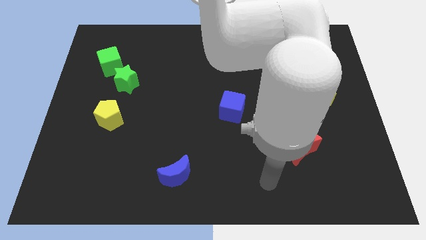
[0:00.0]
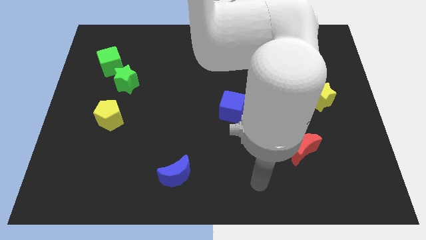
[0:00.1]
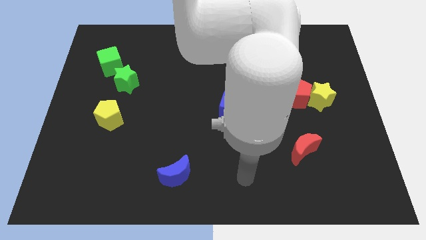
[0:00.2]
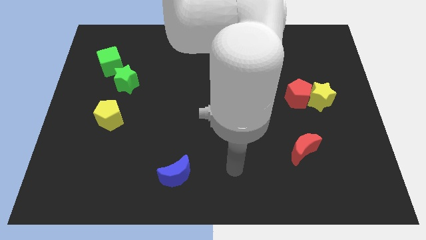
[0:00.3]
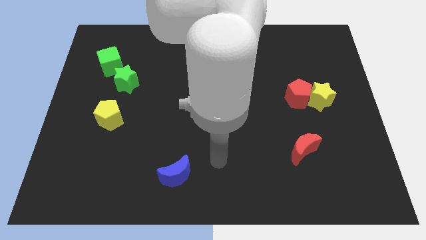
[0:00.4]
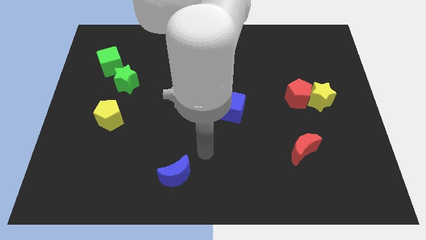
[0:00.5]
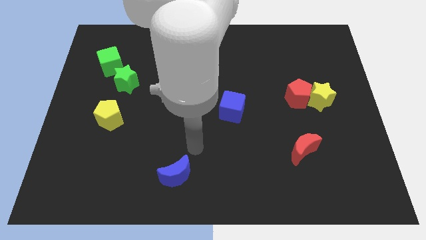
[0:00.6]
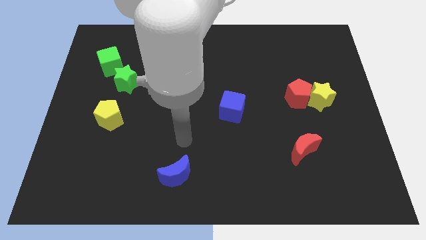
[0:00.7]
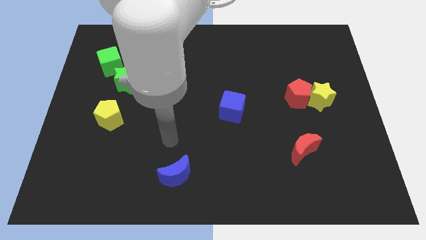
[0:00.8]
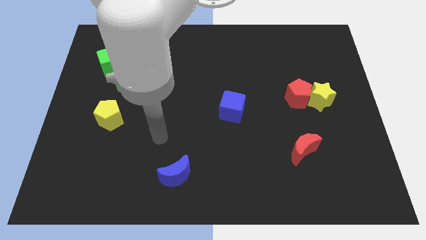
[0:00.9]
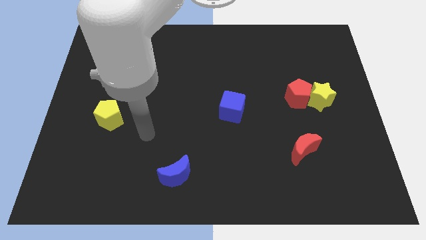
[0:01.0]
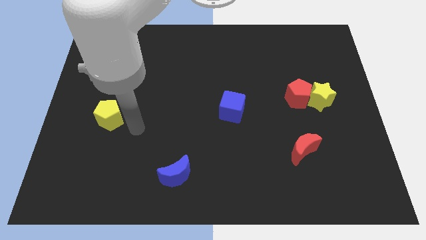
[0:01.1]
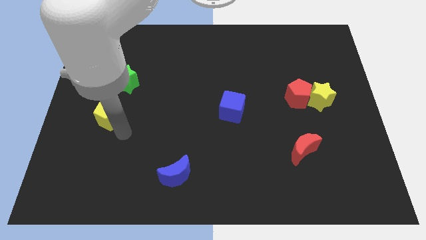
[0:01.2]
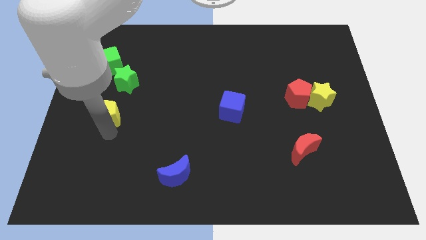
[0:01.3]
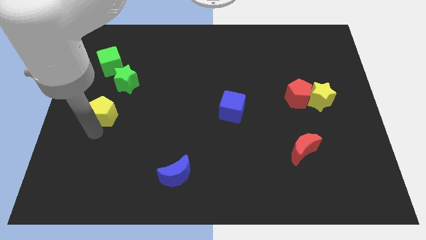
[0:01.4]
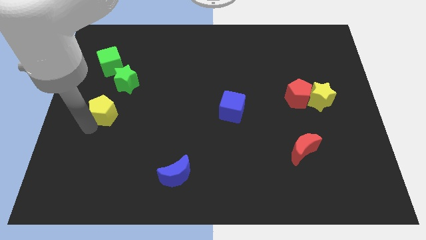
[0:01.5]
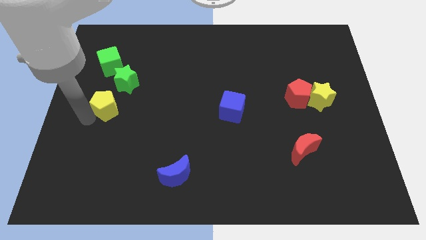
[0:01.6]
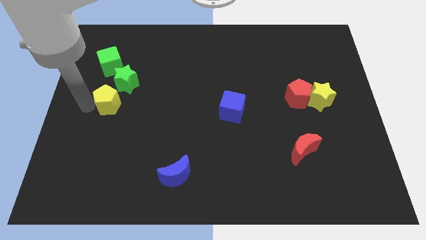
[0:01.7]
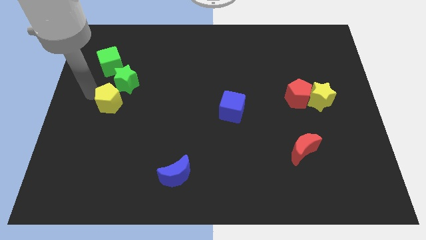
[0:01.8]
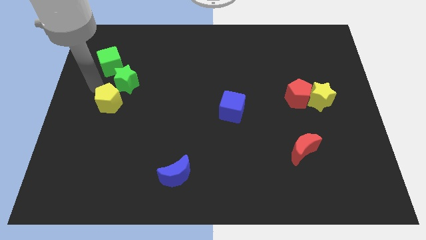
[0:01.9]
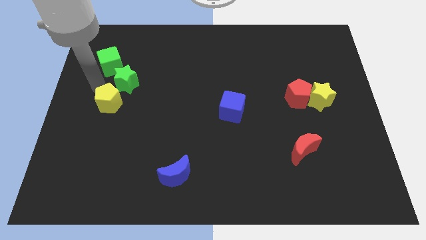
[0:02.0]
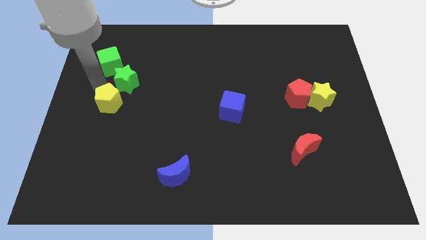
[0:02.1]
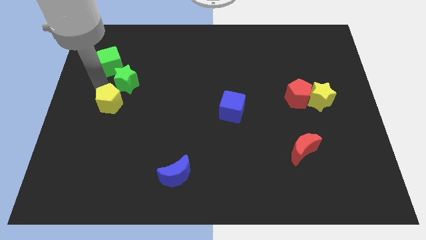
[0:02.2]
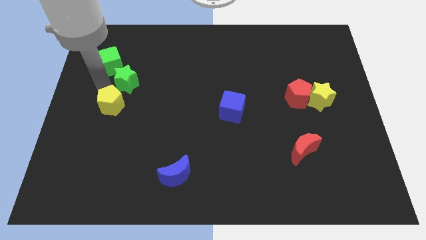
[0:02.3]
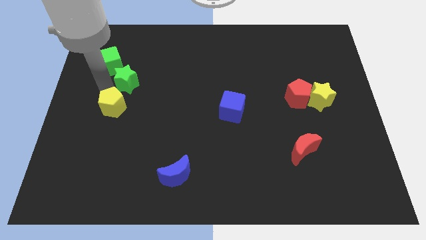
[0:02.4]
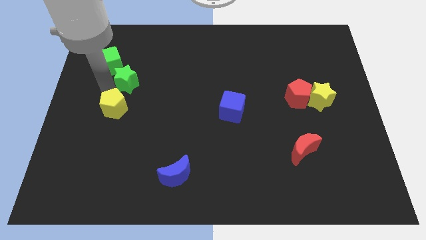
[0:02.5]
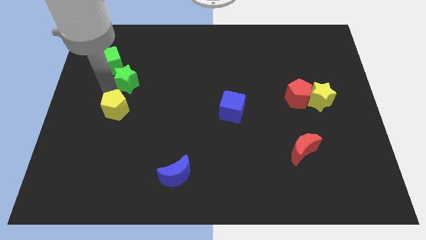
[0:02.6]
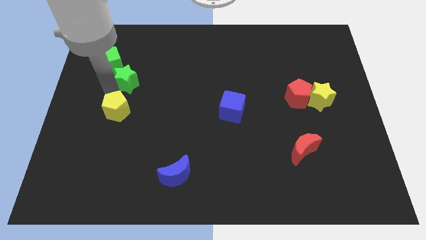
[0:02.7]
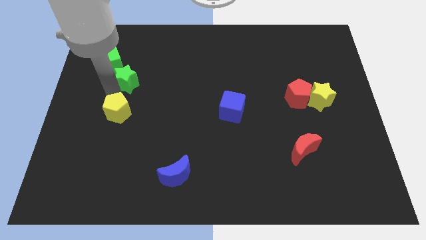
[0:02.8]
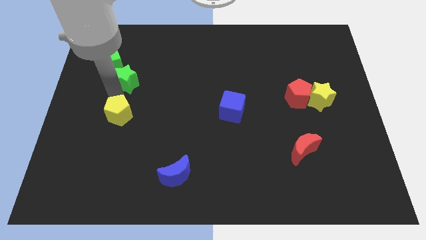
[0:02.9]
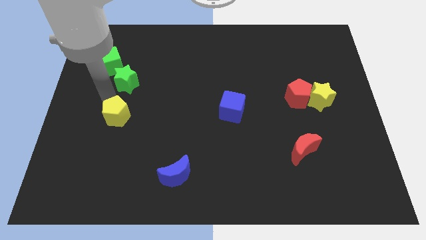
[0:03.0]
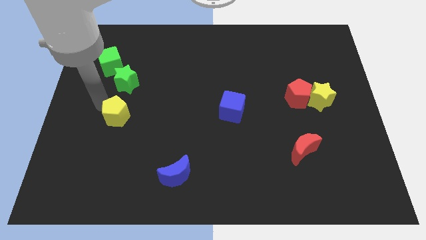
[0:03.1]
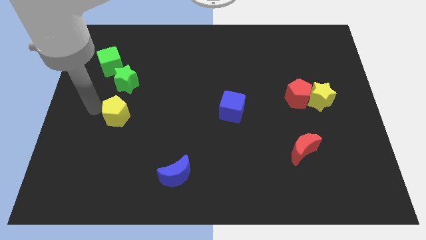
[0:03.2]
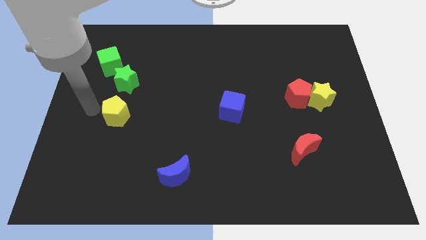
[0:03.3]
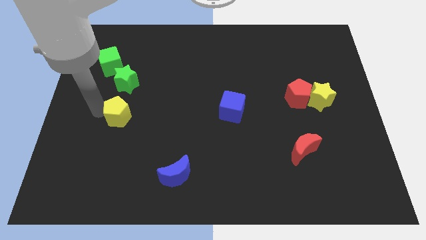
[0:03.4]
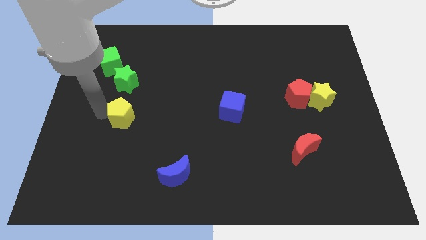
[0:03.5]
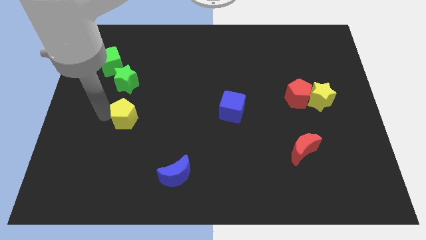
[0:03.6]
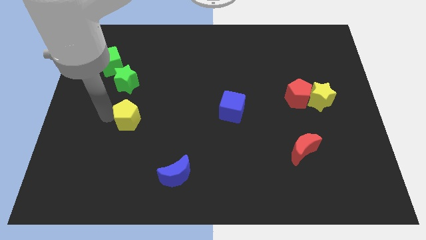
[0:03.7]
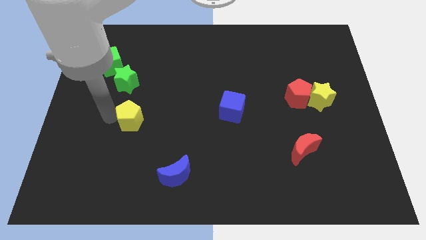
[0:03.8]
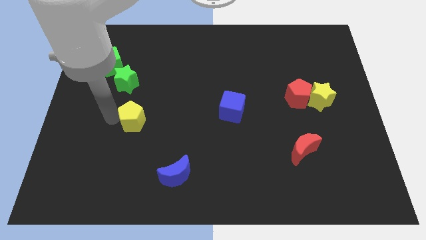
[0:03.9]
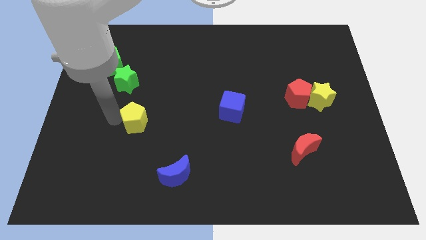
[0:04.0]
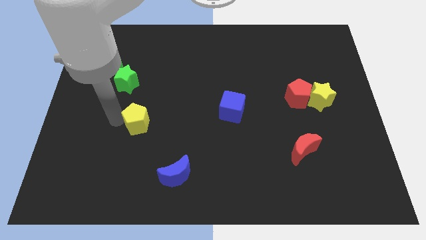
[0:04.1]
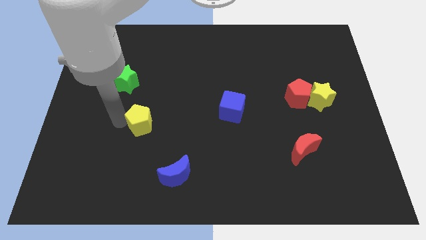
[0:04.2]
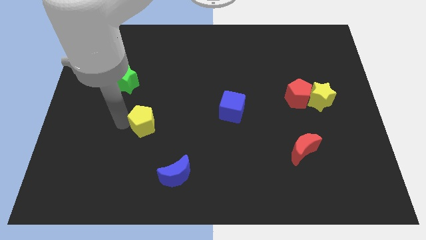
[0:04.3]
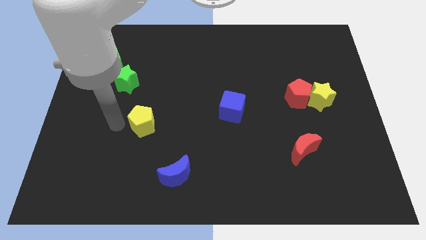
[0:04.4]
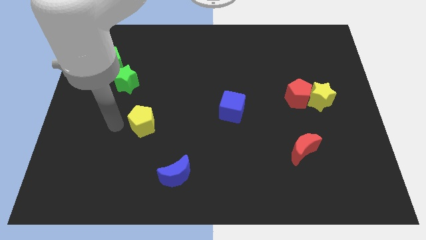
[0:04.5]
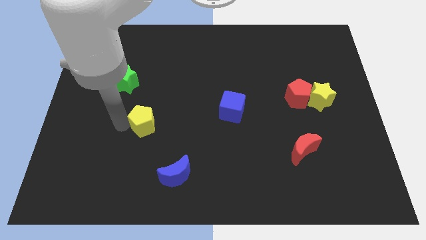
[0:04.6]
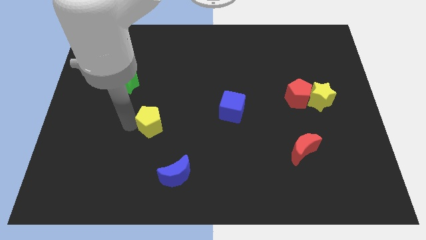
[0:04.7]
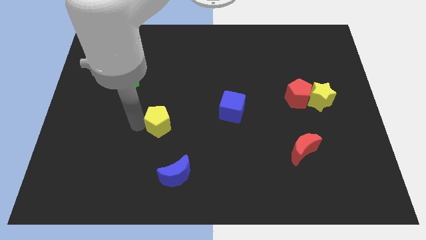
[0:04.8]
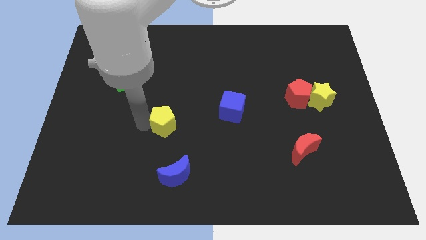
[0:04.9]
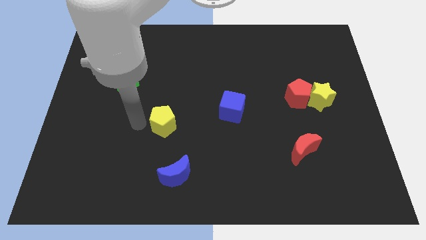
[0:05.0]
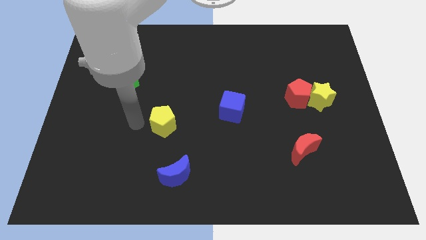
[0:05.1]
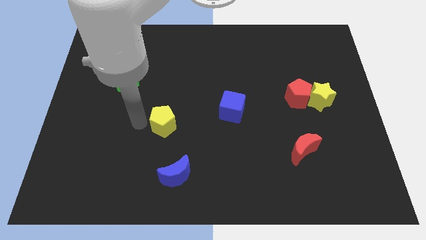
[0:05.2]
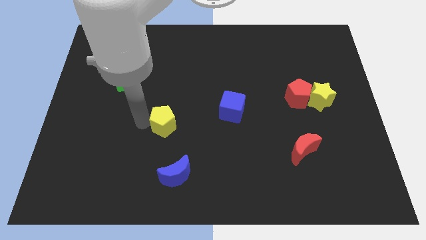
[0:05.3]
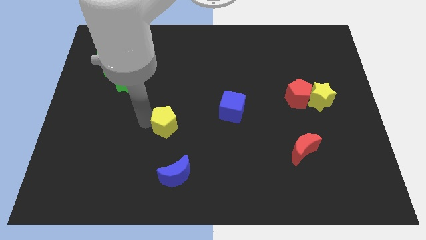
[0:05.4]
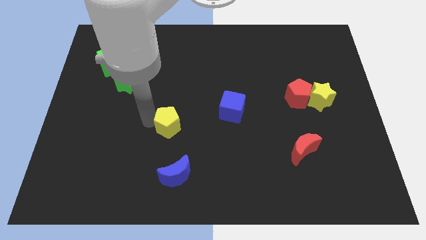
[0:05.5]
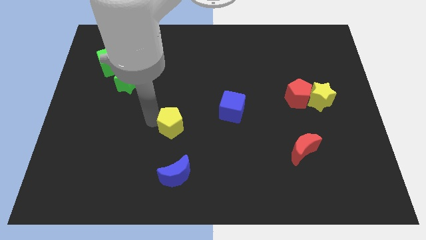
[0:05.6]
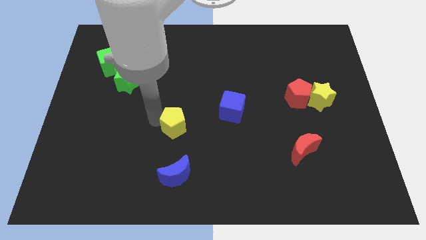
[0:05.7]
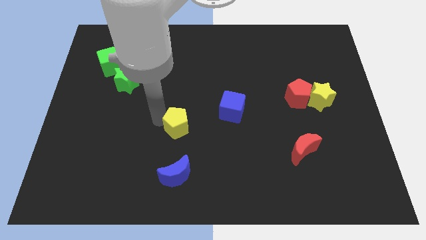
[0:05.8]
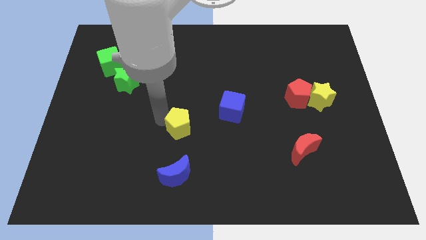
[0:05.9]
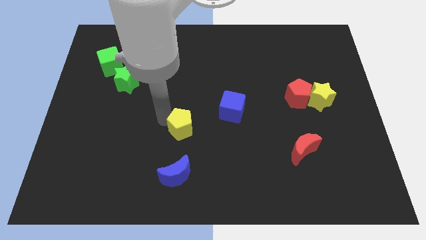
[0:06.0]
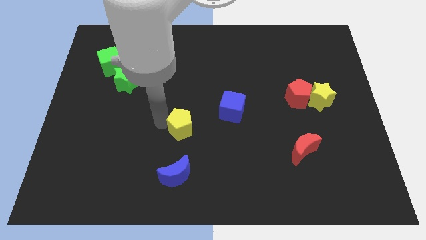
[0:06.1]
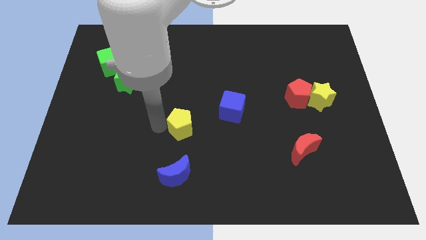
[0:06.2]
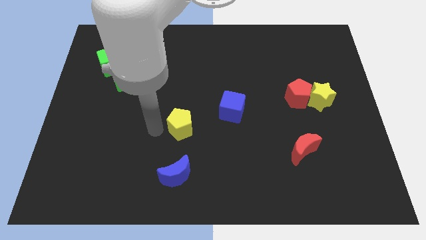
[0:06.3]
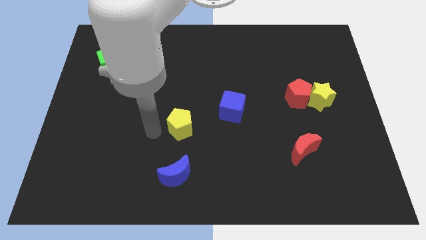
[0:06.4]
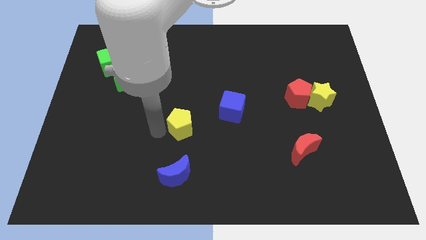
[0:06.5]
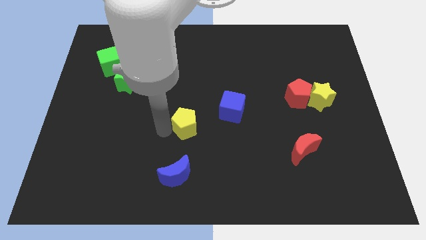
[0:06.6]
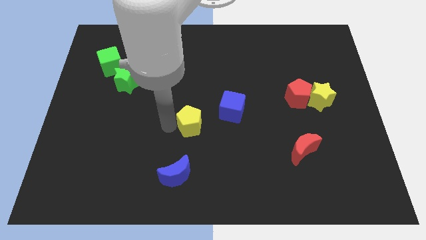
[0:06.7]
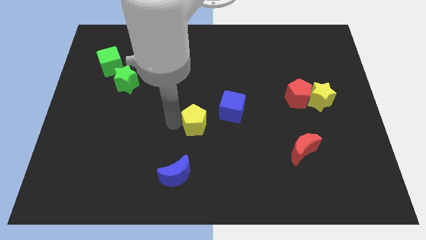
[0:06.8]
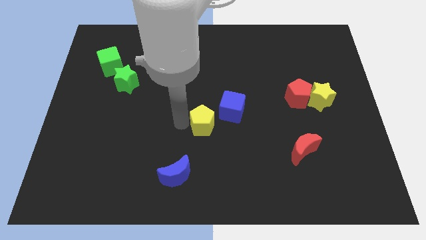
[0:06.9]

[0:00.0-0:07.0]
push the yellow pentagon right

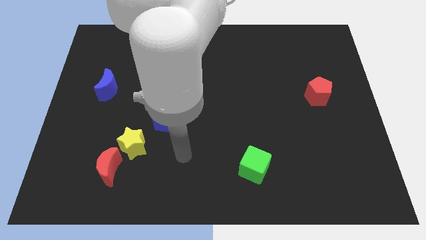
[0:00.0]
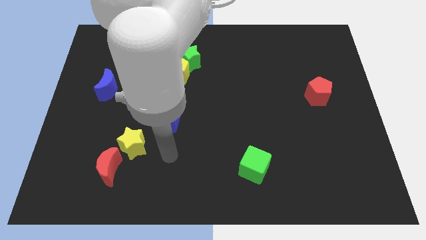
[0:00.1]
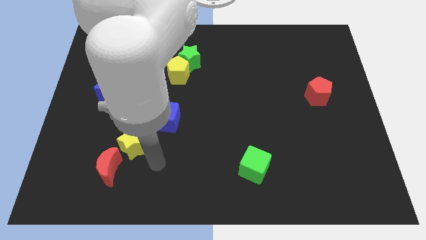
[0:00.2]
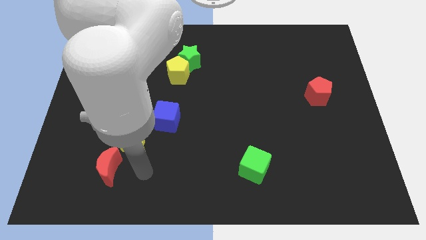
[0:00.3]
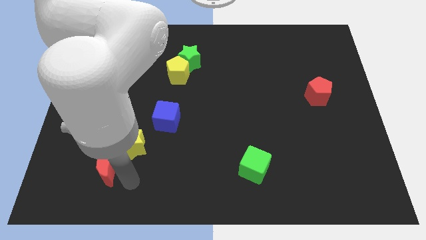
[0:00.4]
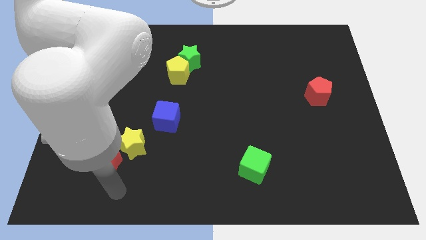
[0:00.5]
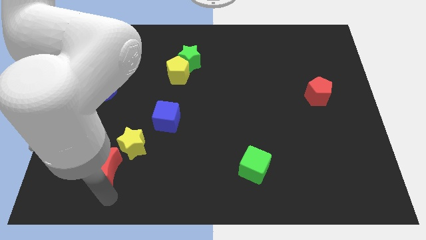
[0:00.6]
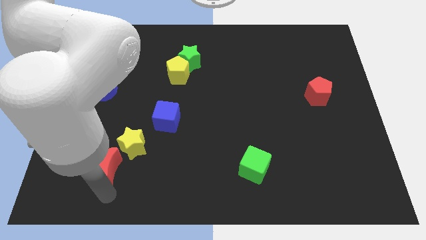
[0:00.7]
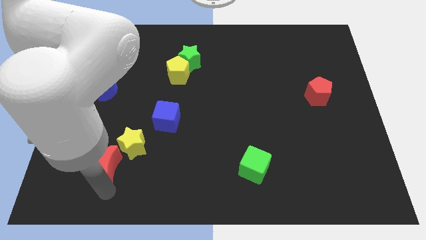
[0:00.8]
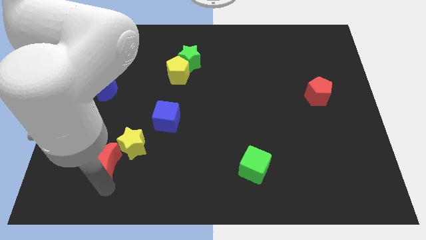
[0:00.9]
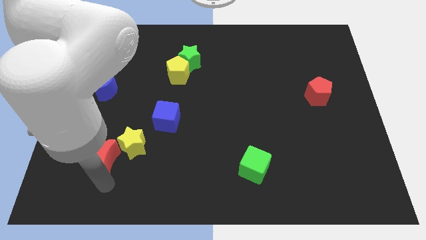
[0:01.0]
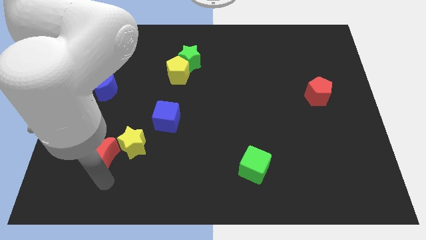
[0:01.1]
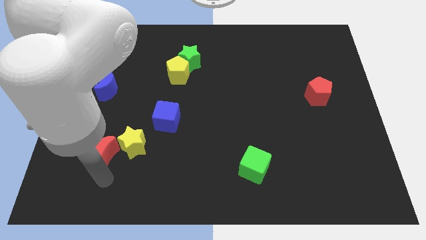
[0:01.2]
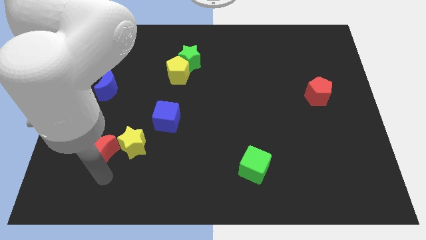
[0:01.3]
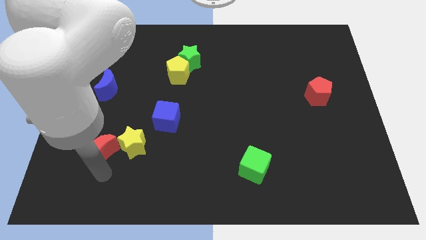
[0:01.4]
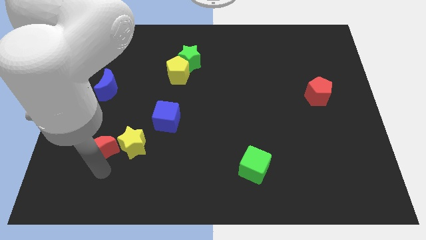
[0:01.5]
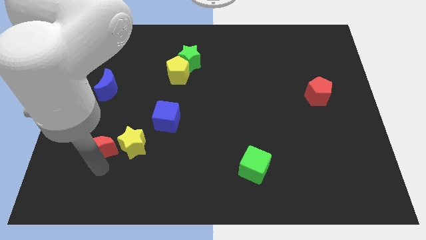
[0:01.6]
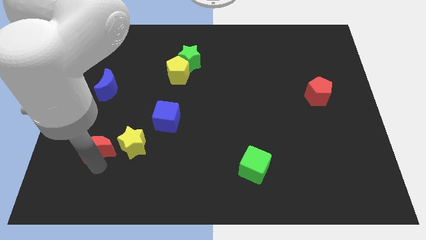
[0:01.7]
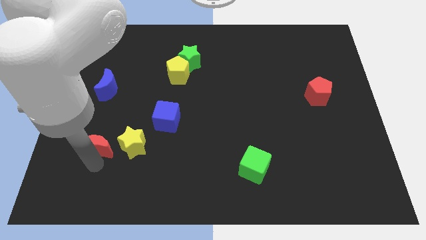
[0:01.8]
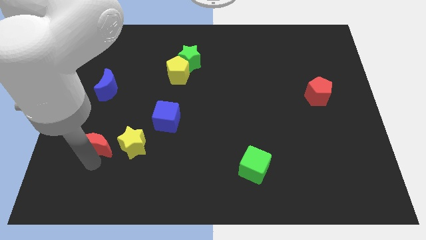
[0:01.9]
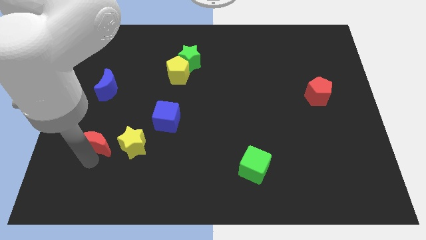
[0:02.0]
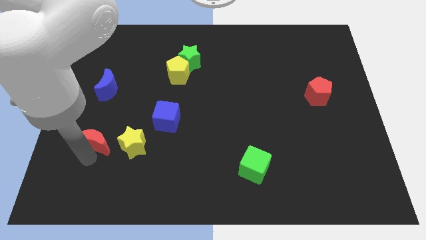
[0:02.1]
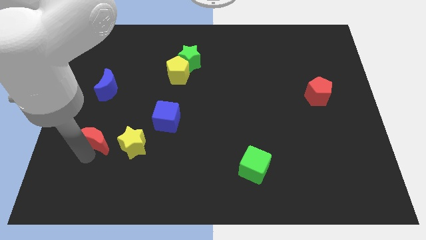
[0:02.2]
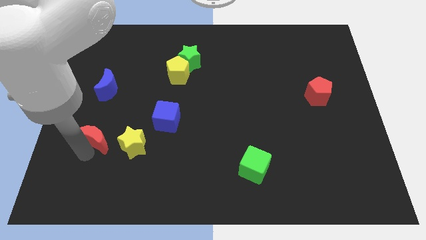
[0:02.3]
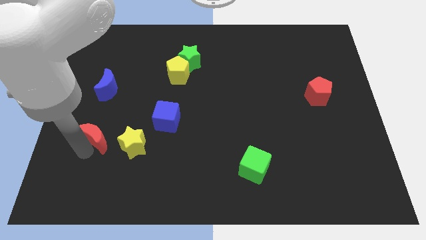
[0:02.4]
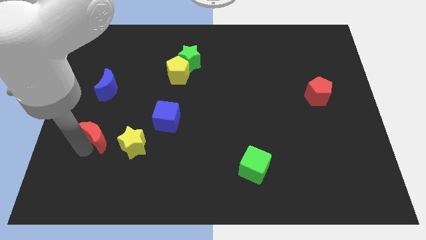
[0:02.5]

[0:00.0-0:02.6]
slightly move the red moon up
